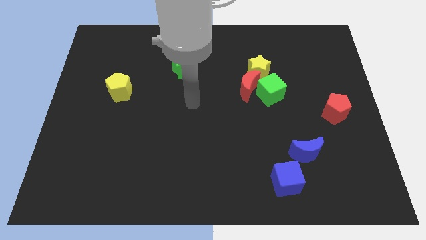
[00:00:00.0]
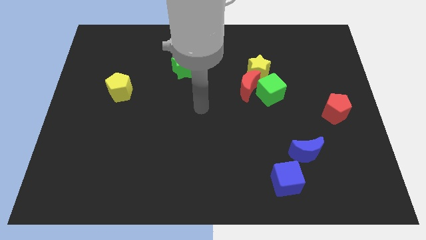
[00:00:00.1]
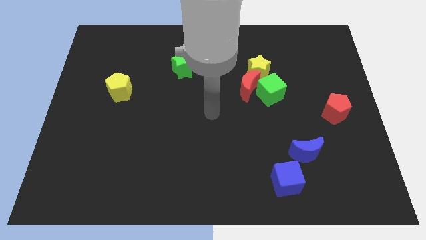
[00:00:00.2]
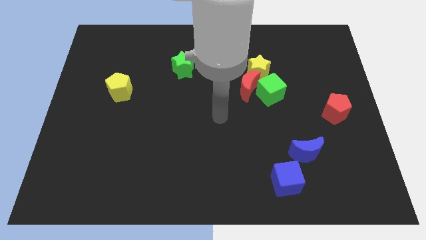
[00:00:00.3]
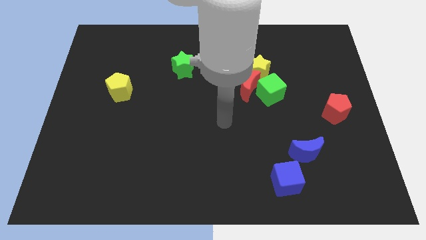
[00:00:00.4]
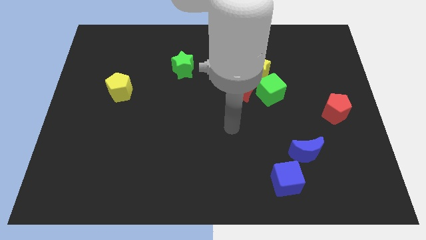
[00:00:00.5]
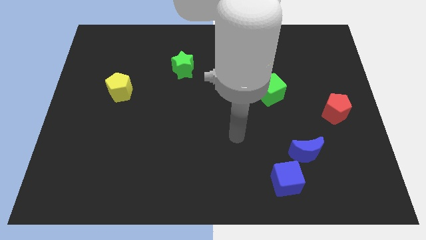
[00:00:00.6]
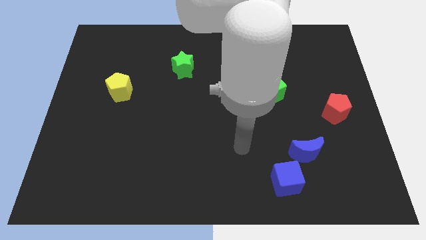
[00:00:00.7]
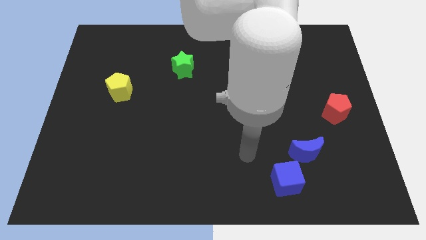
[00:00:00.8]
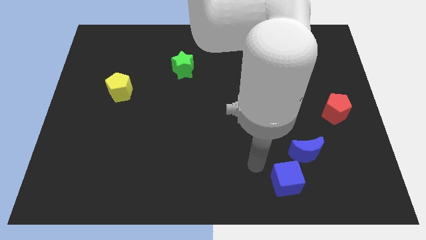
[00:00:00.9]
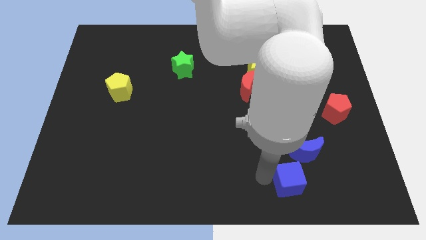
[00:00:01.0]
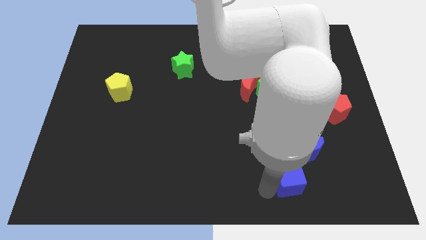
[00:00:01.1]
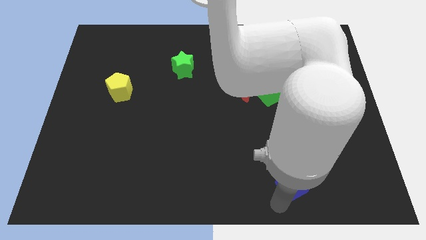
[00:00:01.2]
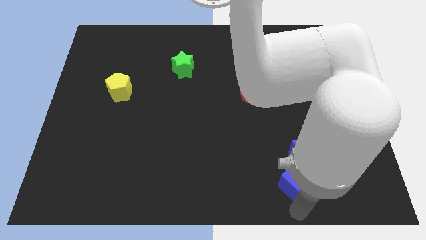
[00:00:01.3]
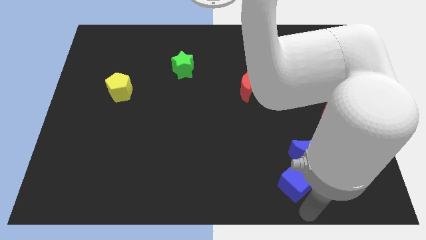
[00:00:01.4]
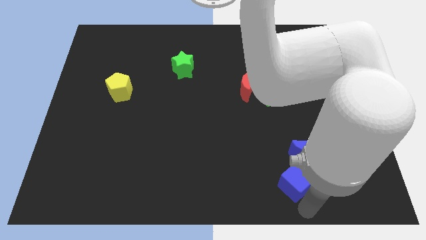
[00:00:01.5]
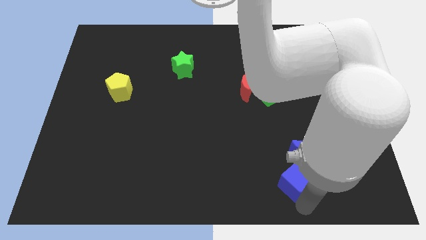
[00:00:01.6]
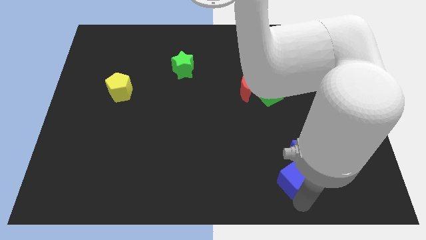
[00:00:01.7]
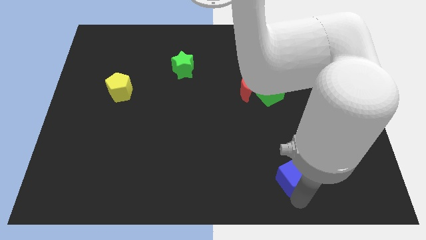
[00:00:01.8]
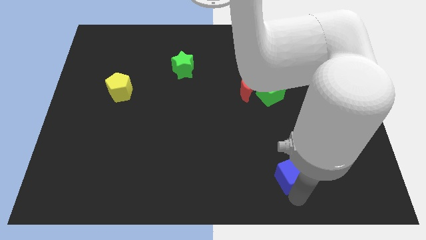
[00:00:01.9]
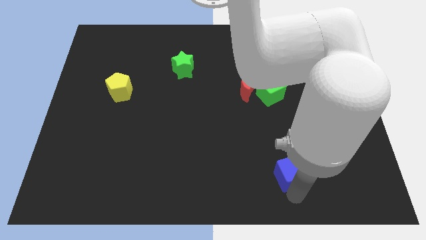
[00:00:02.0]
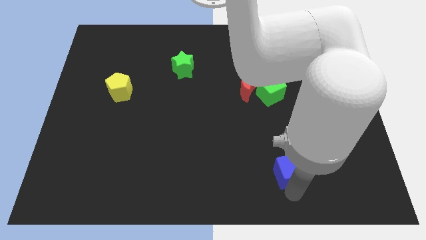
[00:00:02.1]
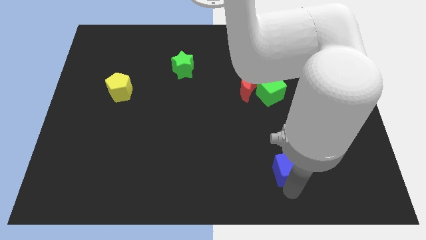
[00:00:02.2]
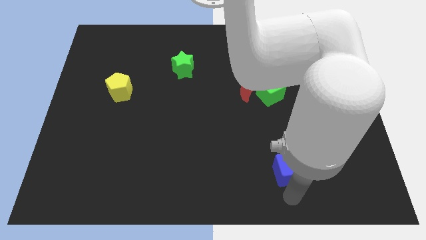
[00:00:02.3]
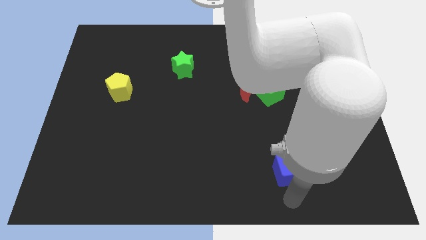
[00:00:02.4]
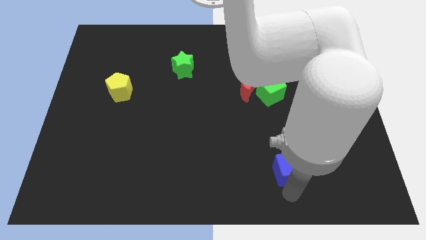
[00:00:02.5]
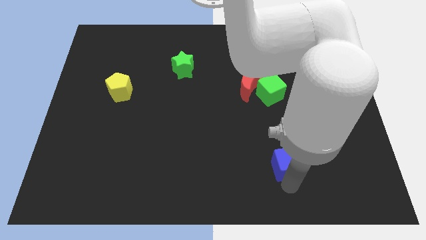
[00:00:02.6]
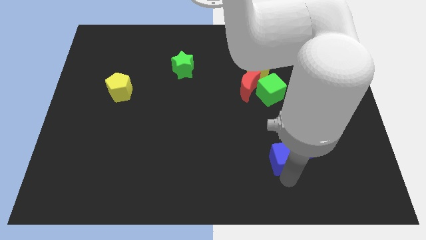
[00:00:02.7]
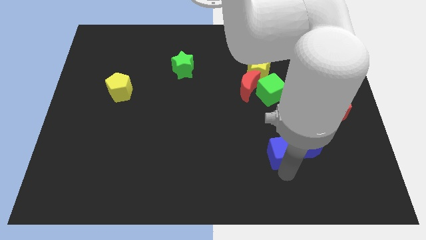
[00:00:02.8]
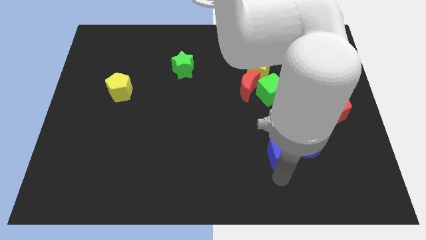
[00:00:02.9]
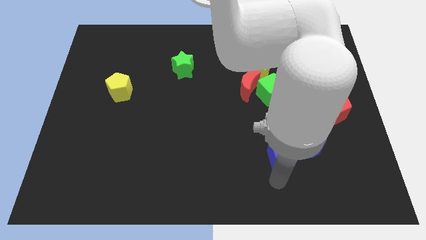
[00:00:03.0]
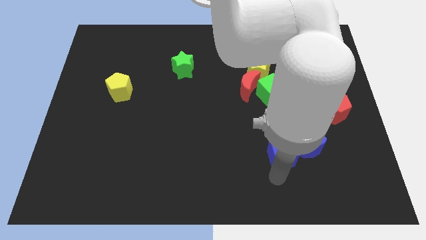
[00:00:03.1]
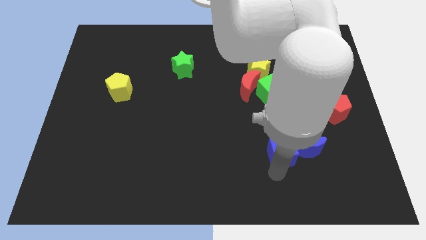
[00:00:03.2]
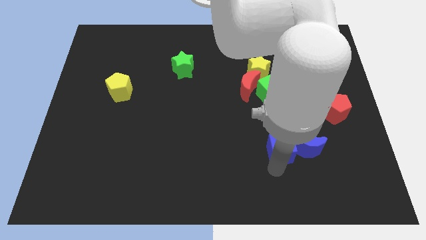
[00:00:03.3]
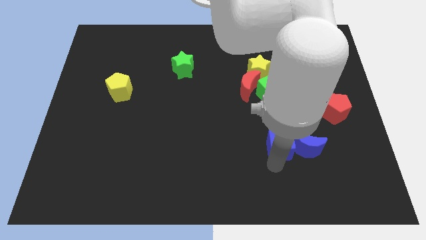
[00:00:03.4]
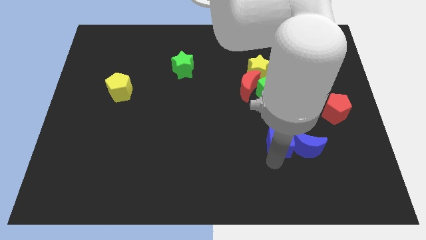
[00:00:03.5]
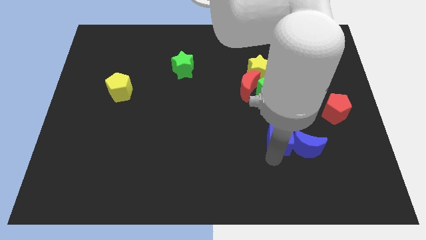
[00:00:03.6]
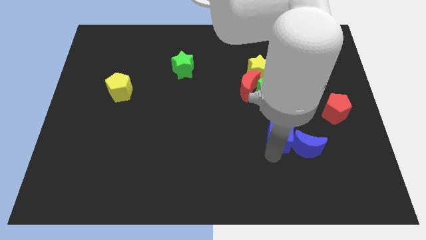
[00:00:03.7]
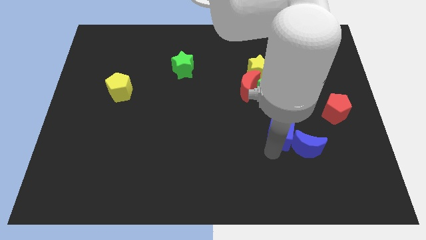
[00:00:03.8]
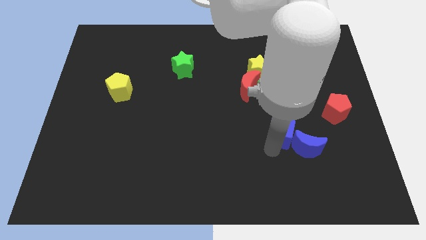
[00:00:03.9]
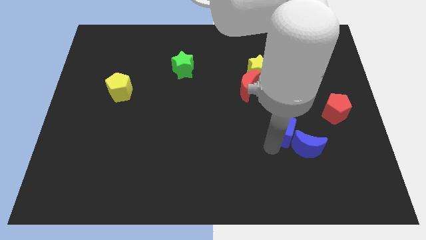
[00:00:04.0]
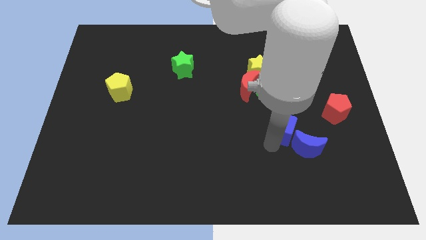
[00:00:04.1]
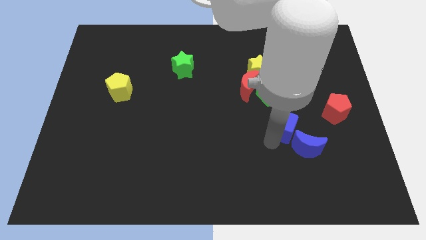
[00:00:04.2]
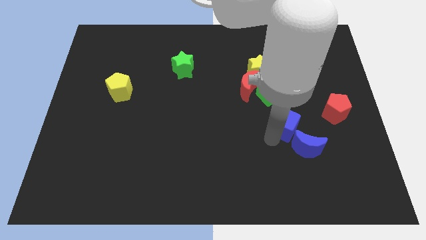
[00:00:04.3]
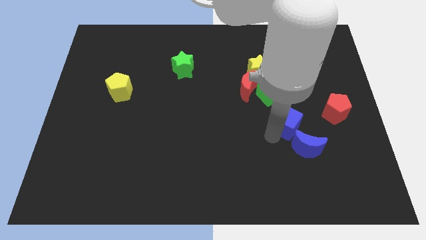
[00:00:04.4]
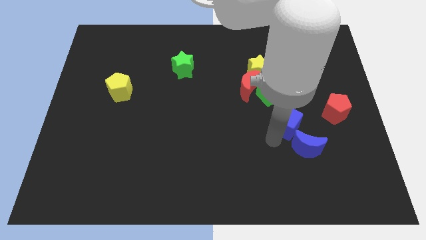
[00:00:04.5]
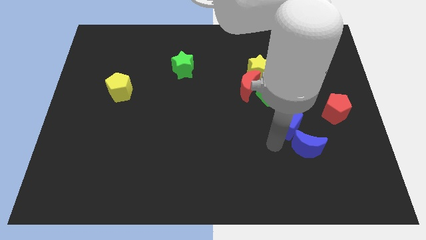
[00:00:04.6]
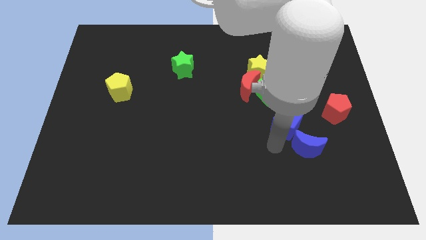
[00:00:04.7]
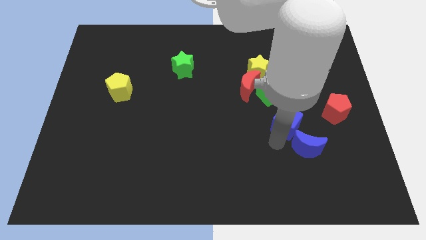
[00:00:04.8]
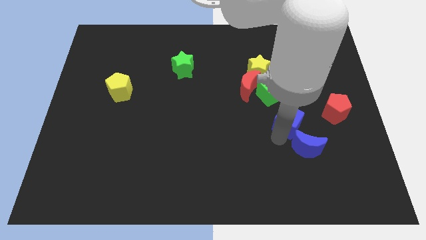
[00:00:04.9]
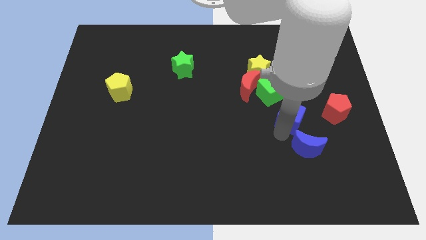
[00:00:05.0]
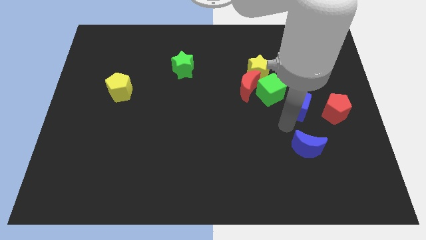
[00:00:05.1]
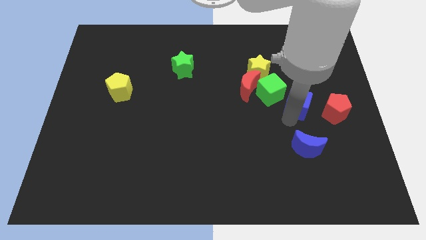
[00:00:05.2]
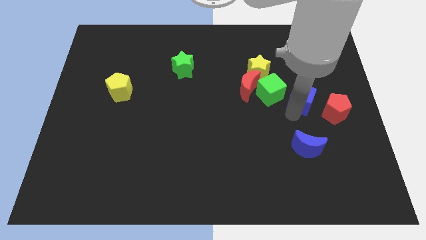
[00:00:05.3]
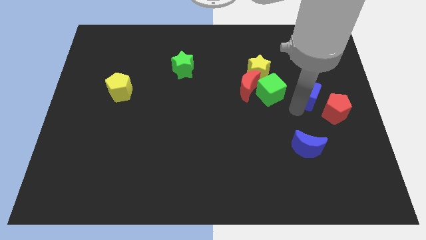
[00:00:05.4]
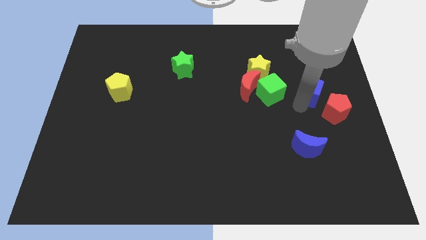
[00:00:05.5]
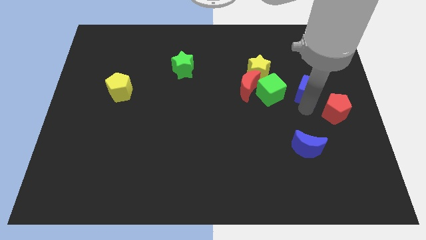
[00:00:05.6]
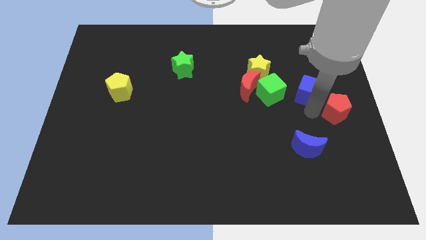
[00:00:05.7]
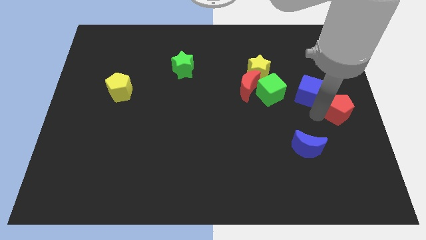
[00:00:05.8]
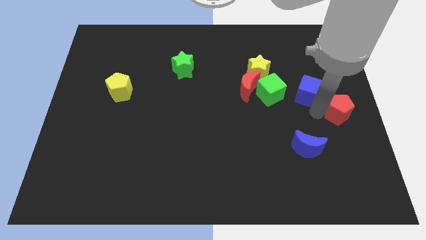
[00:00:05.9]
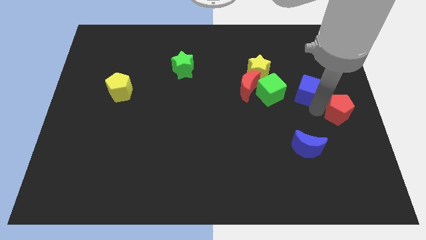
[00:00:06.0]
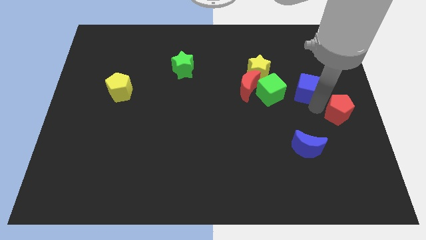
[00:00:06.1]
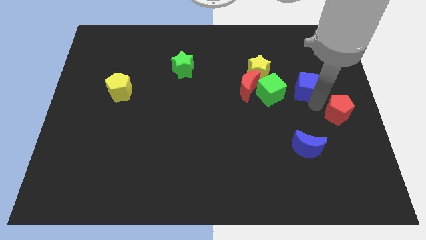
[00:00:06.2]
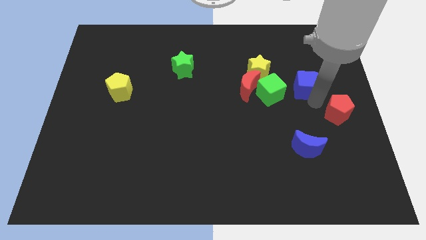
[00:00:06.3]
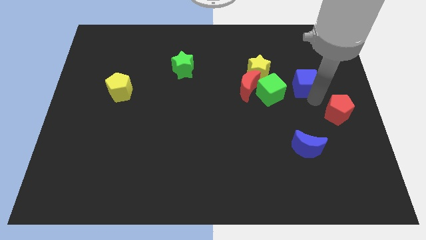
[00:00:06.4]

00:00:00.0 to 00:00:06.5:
move the blue cube just right of the yellow star
